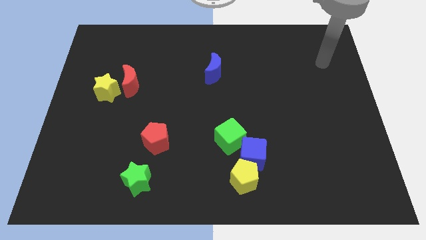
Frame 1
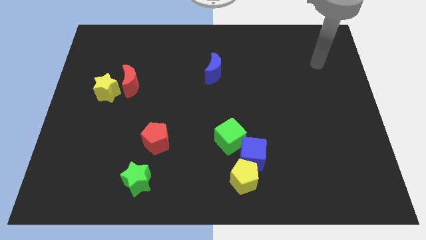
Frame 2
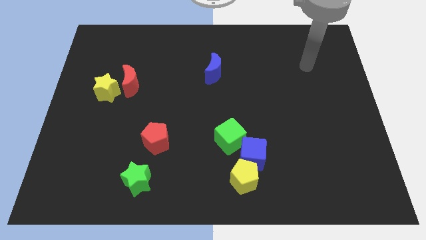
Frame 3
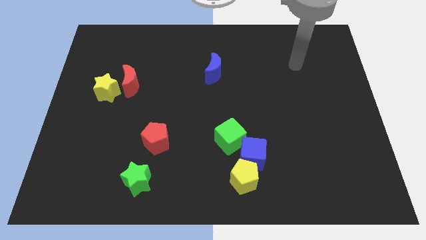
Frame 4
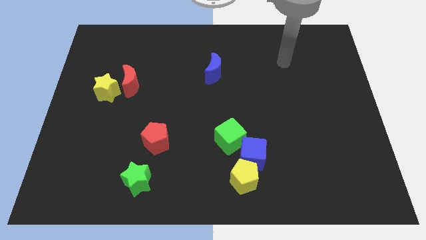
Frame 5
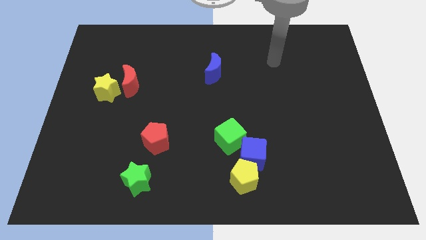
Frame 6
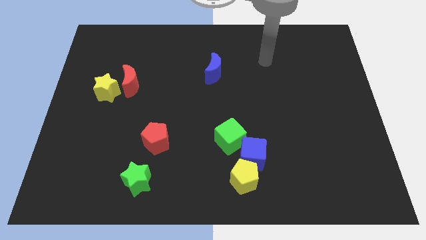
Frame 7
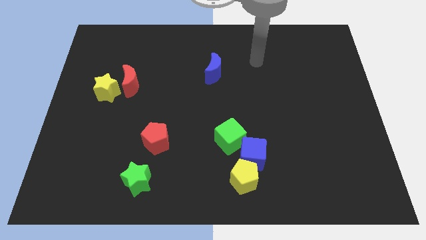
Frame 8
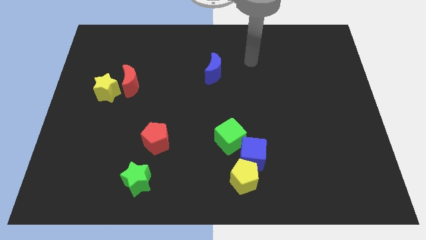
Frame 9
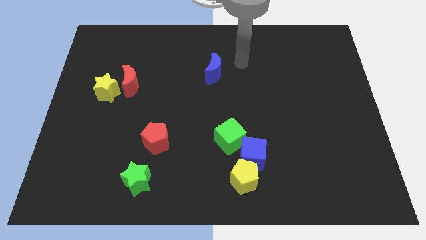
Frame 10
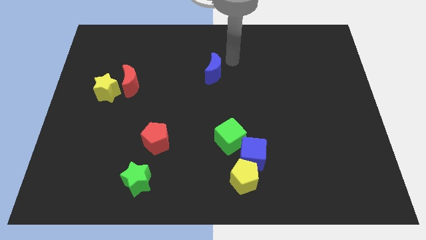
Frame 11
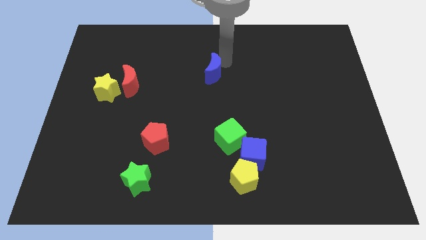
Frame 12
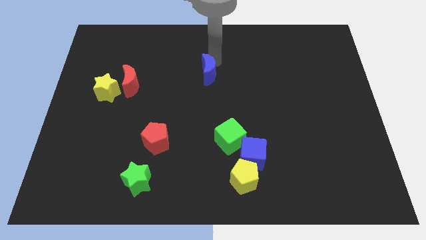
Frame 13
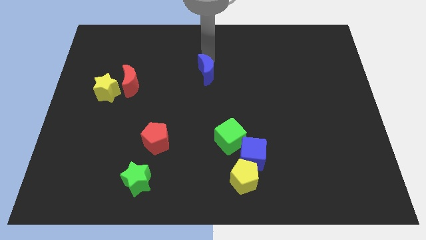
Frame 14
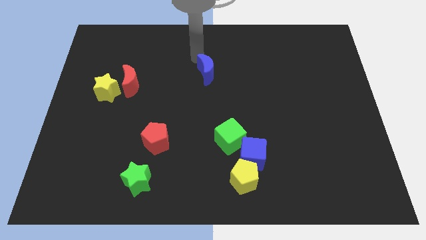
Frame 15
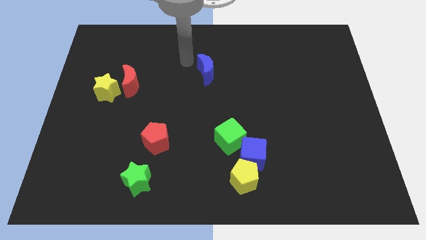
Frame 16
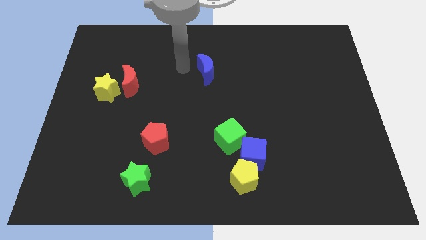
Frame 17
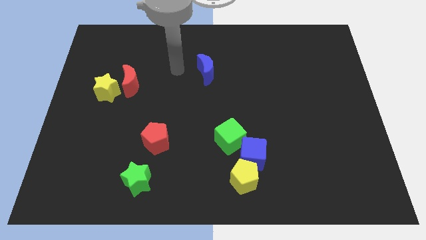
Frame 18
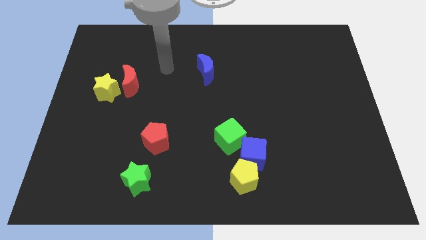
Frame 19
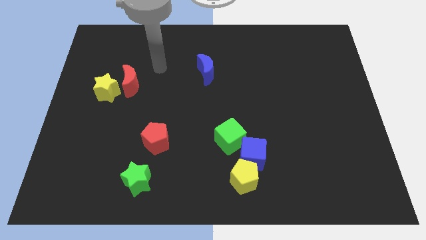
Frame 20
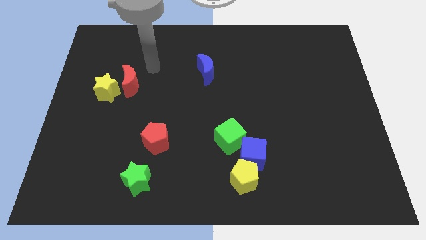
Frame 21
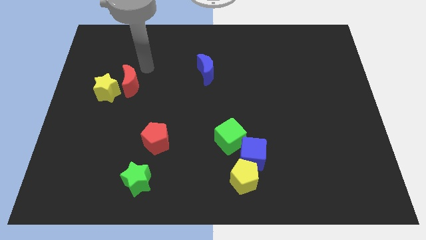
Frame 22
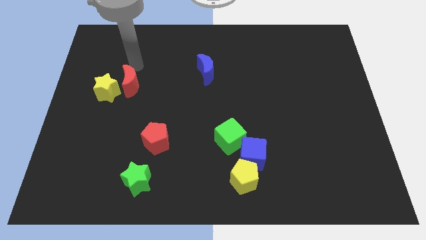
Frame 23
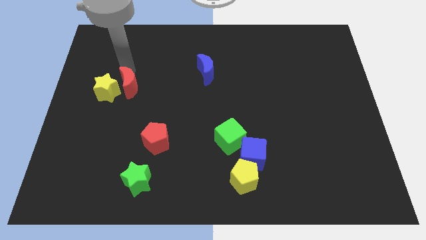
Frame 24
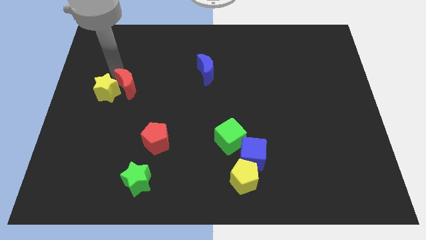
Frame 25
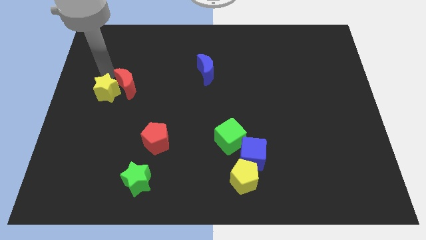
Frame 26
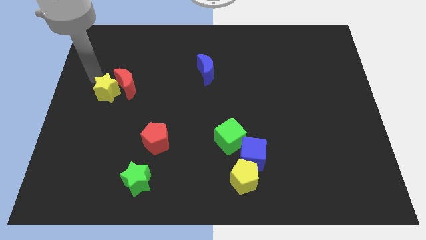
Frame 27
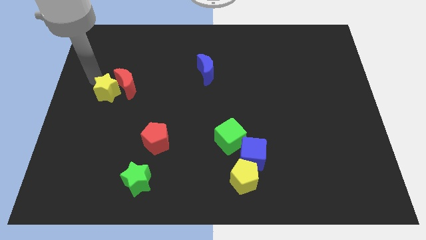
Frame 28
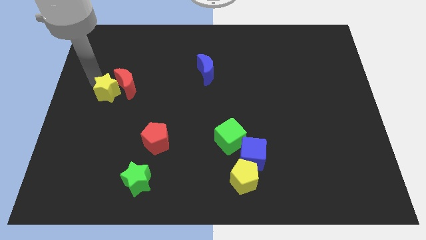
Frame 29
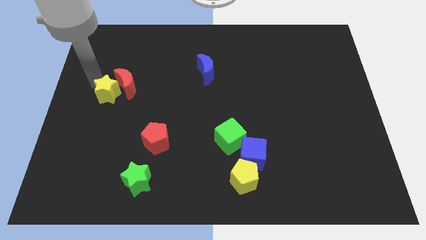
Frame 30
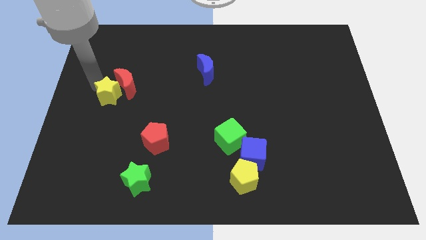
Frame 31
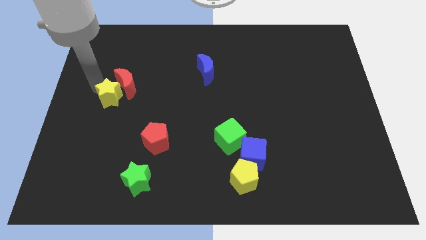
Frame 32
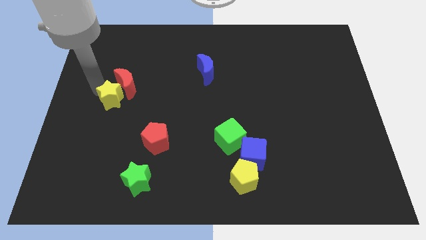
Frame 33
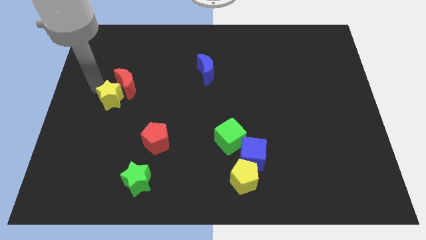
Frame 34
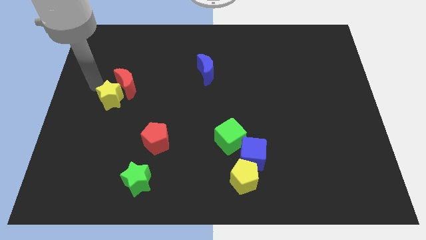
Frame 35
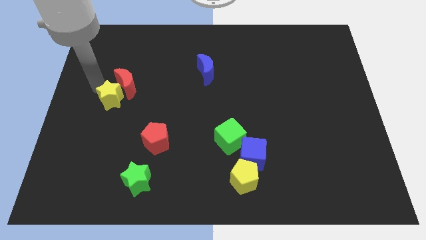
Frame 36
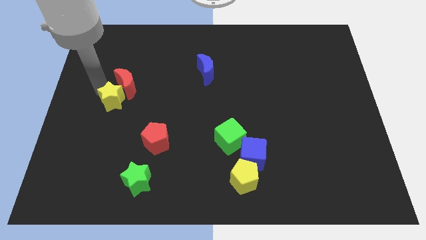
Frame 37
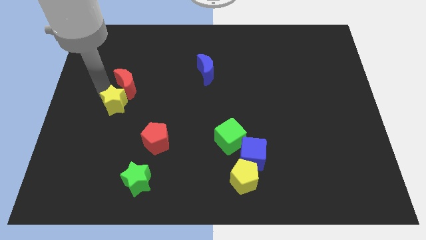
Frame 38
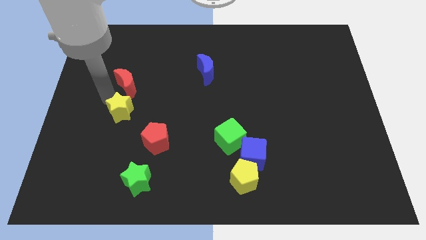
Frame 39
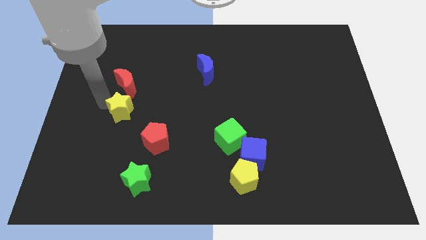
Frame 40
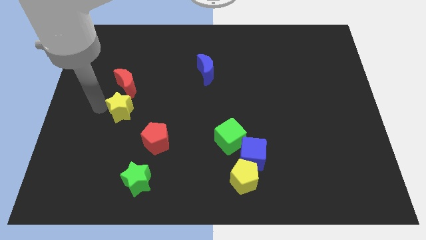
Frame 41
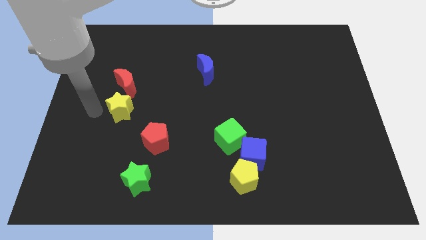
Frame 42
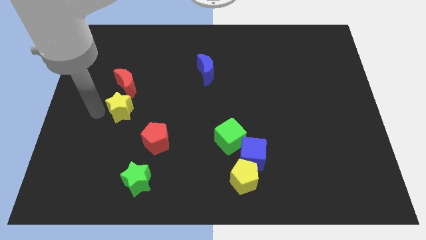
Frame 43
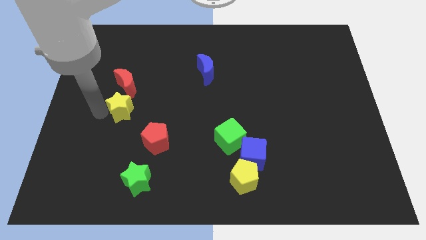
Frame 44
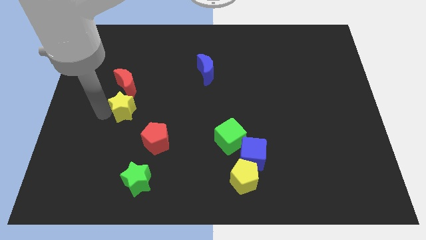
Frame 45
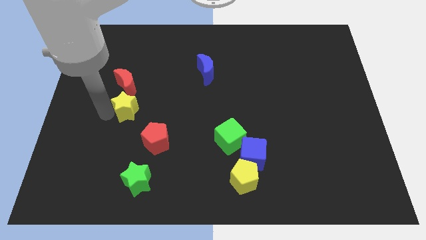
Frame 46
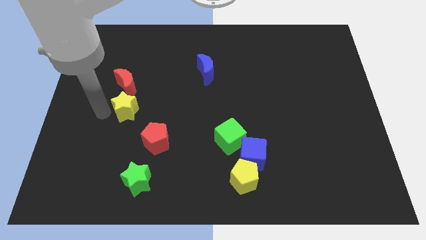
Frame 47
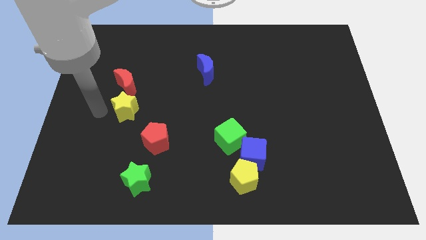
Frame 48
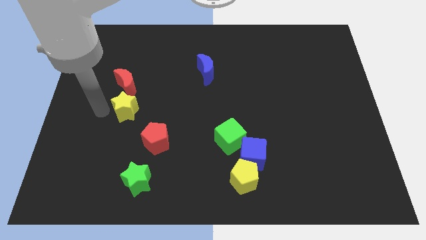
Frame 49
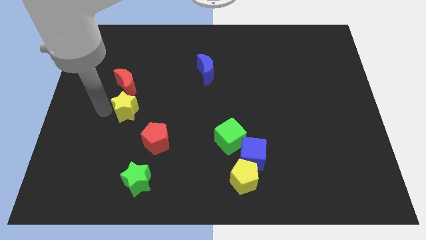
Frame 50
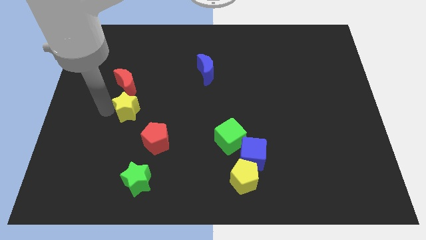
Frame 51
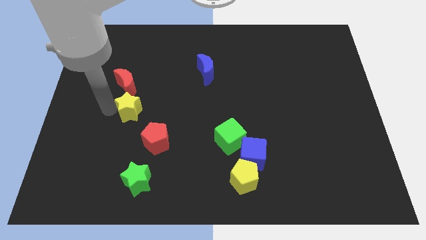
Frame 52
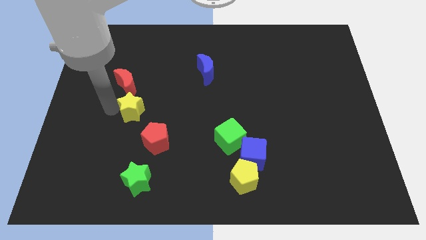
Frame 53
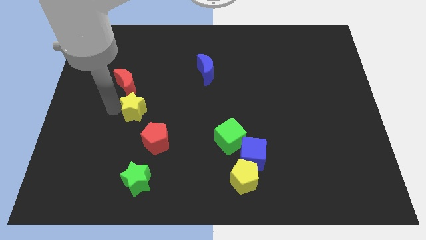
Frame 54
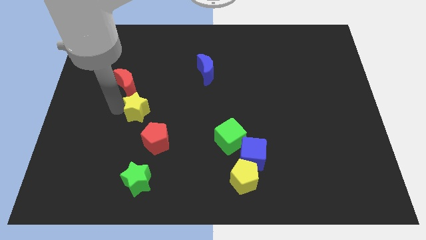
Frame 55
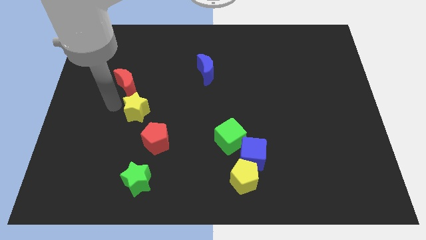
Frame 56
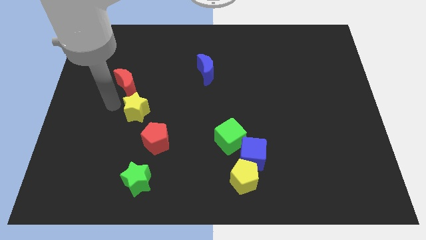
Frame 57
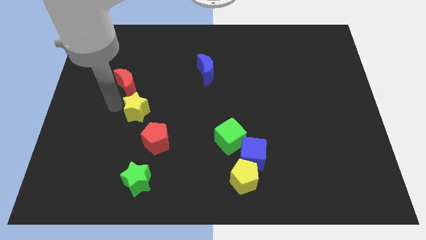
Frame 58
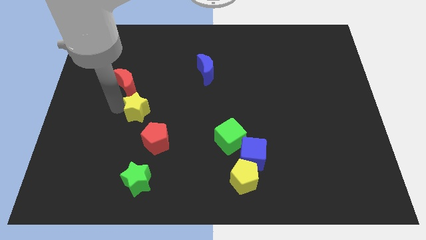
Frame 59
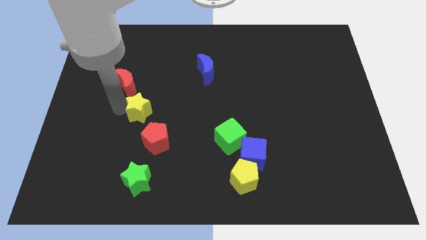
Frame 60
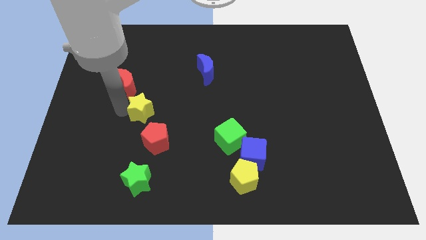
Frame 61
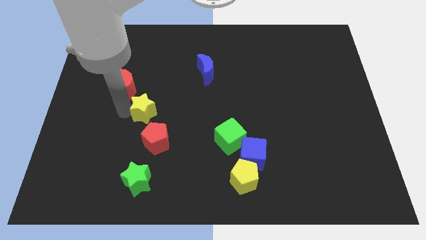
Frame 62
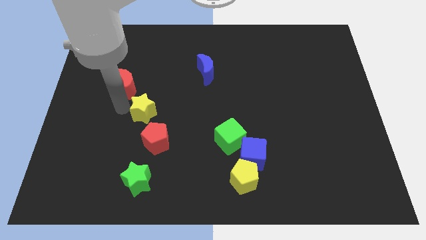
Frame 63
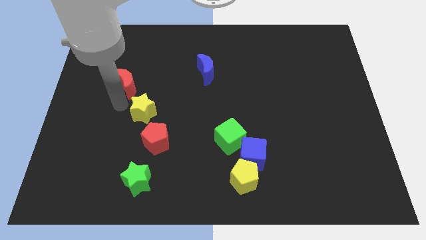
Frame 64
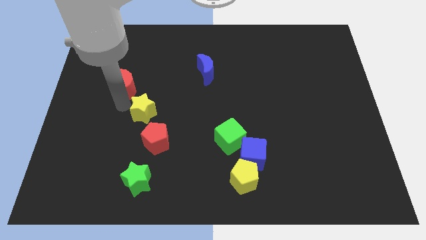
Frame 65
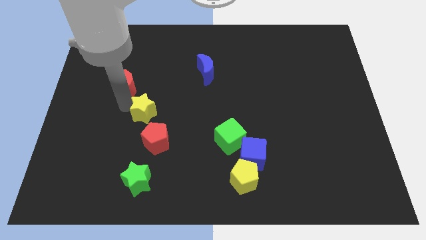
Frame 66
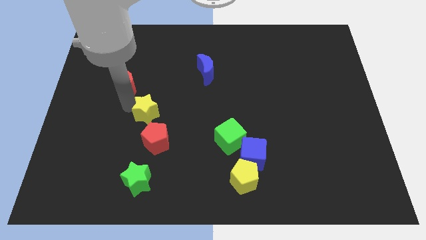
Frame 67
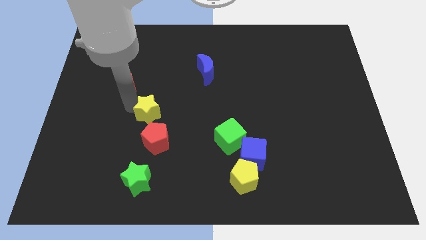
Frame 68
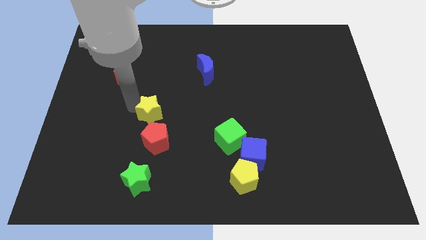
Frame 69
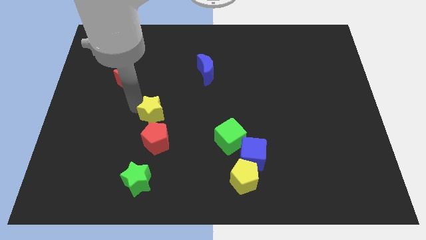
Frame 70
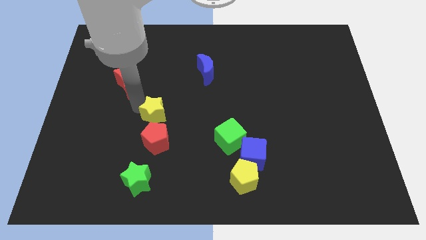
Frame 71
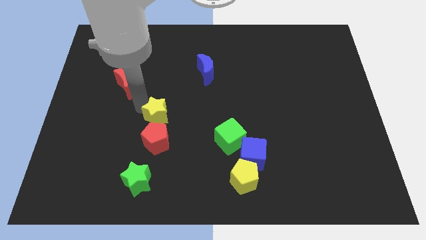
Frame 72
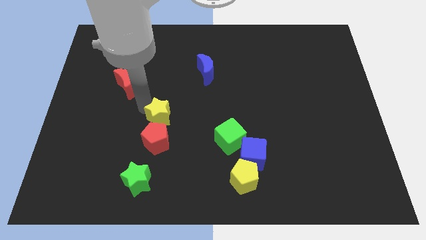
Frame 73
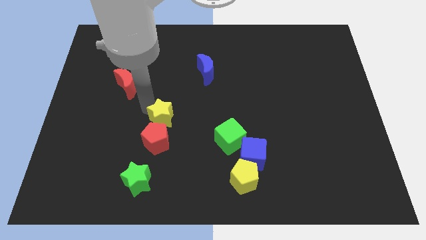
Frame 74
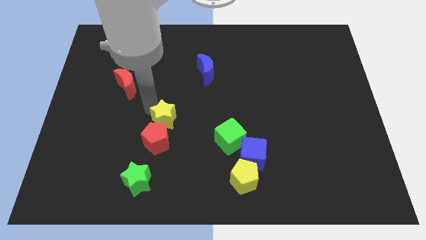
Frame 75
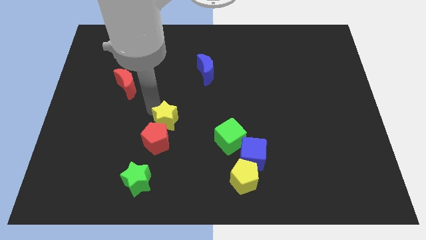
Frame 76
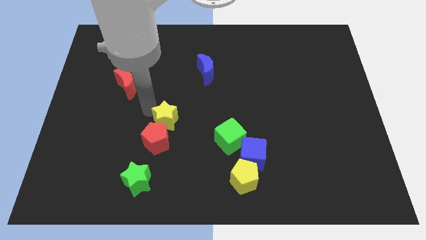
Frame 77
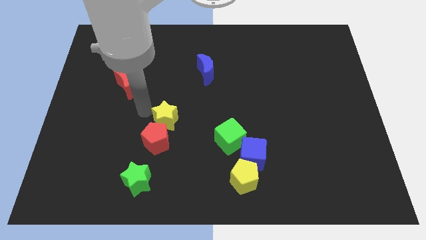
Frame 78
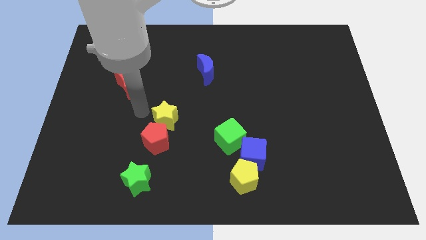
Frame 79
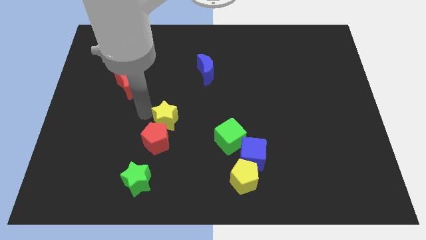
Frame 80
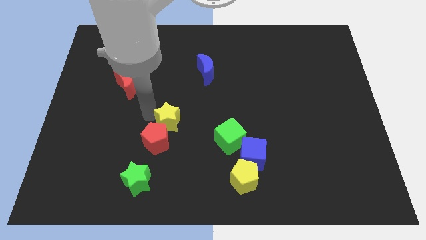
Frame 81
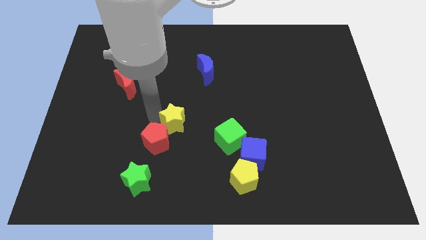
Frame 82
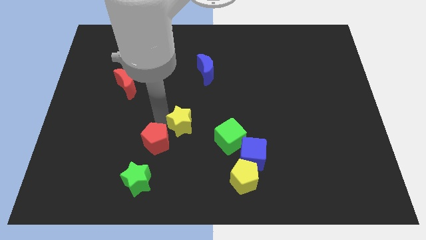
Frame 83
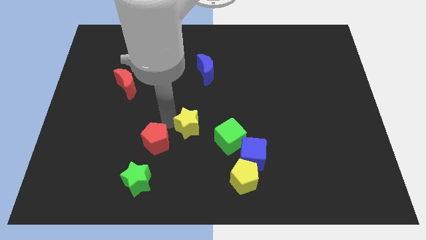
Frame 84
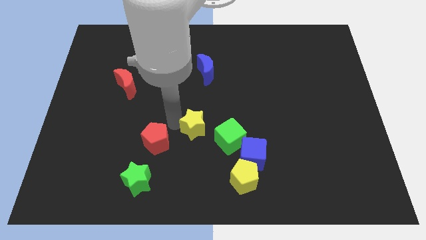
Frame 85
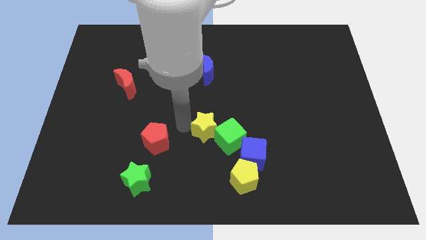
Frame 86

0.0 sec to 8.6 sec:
move the yellow star towards the green cube
